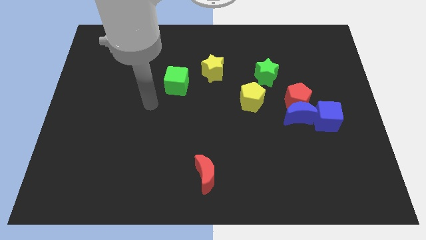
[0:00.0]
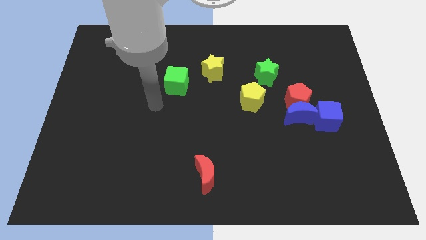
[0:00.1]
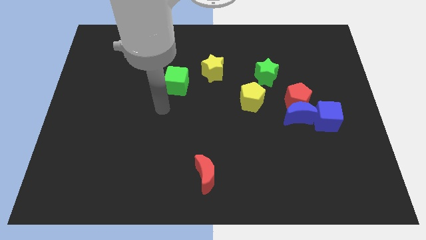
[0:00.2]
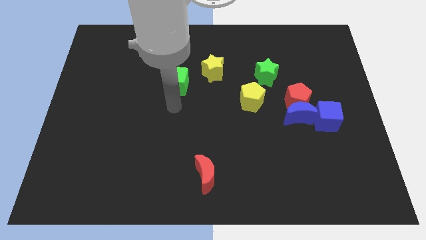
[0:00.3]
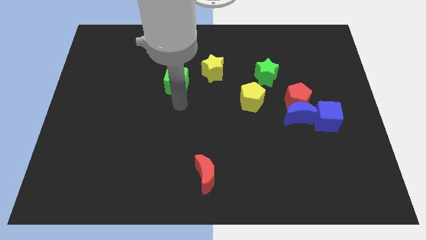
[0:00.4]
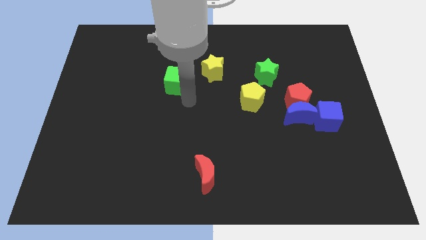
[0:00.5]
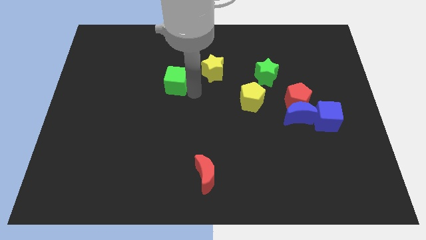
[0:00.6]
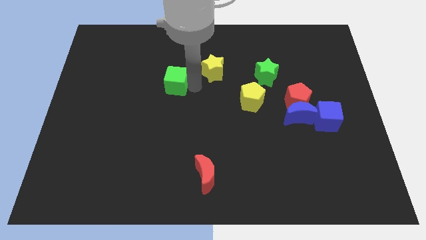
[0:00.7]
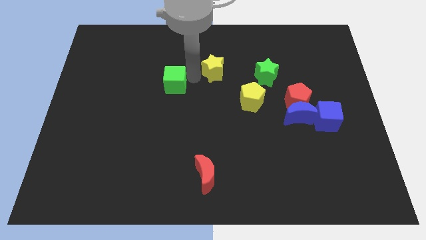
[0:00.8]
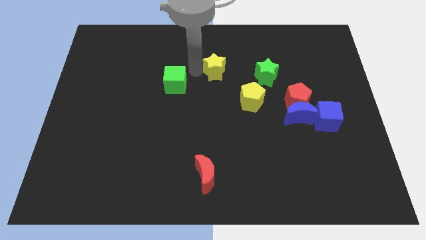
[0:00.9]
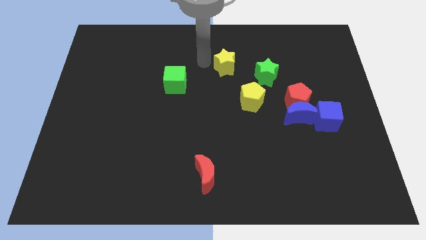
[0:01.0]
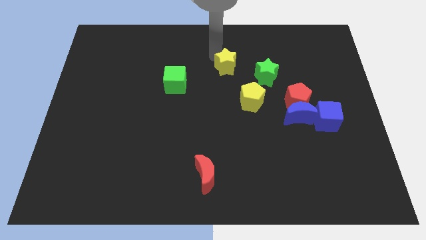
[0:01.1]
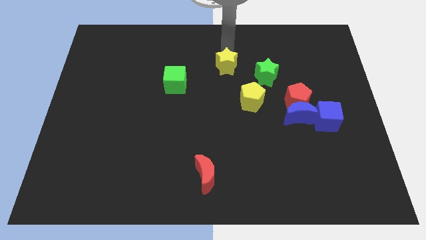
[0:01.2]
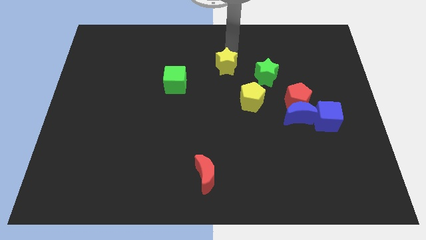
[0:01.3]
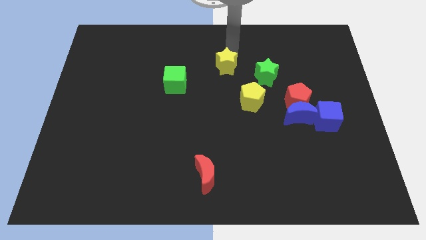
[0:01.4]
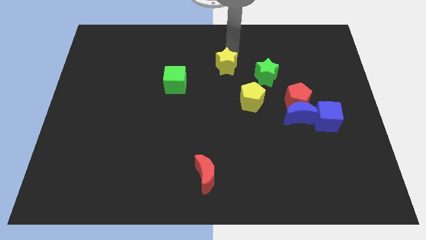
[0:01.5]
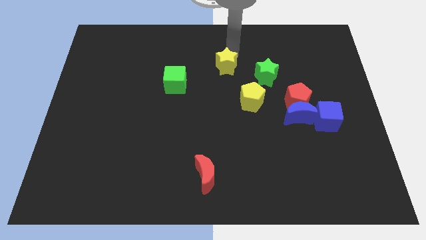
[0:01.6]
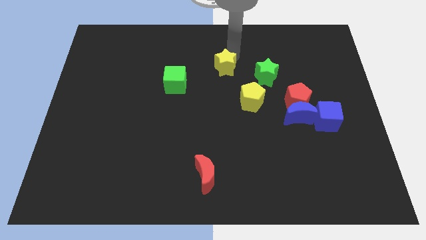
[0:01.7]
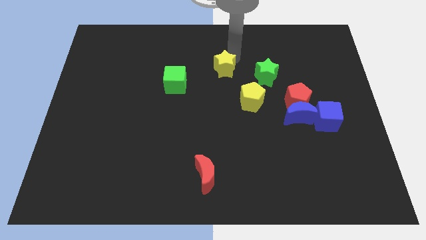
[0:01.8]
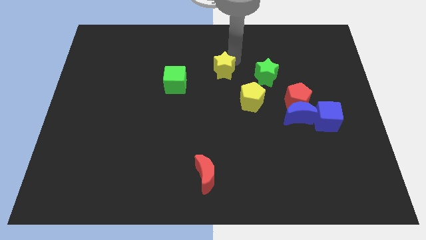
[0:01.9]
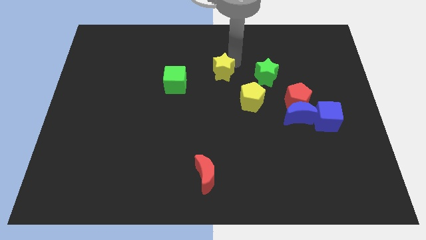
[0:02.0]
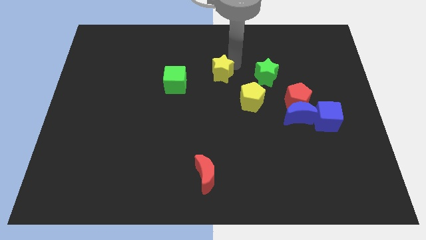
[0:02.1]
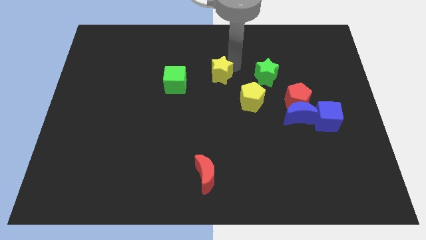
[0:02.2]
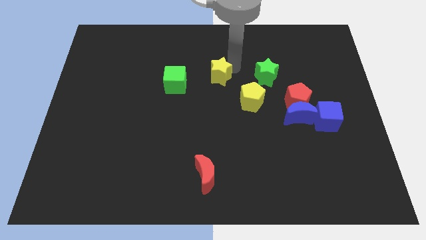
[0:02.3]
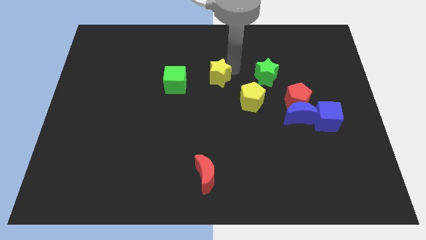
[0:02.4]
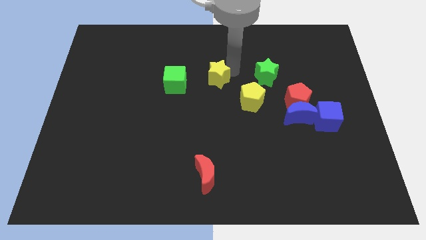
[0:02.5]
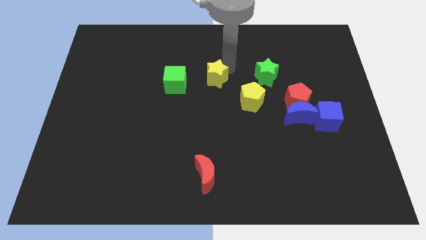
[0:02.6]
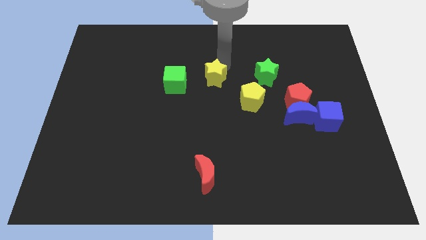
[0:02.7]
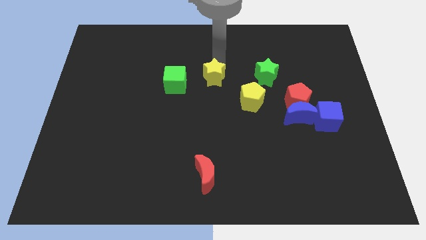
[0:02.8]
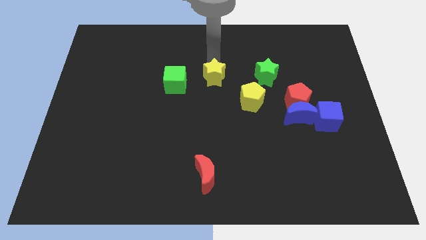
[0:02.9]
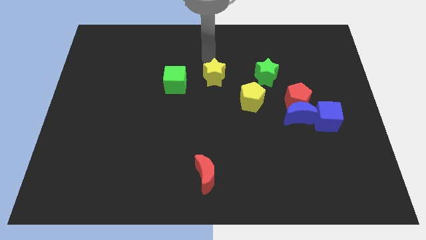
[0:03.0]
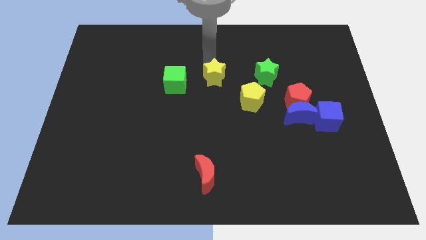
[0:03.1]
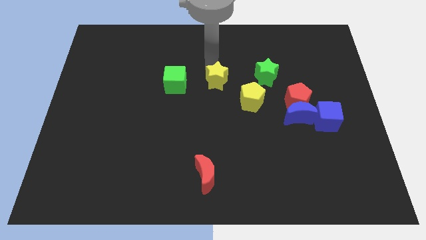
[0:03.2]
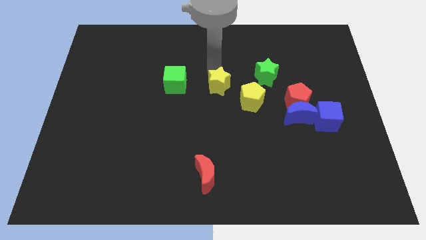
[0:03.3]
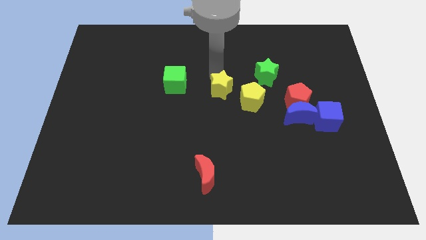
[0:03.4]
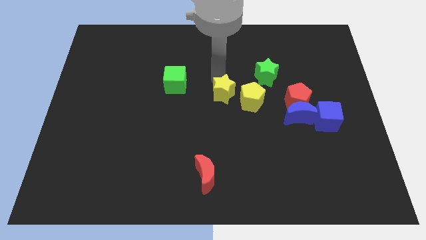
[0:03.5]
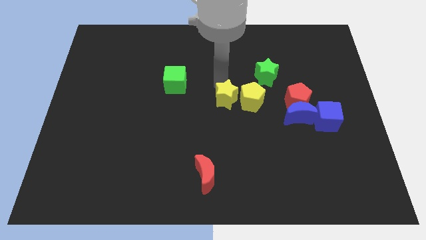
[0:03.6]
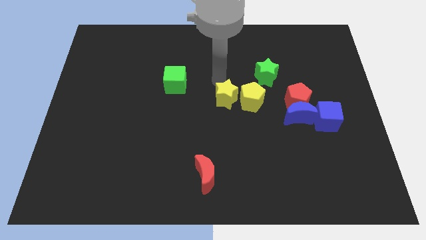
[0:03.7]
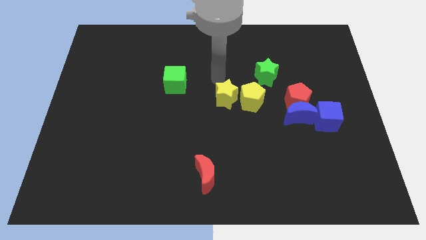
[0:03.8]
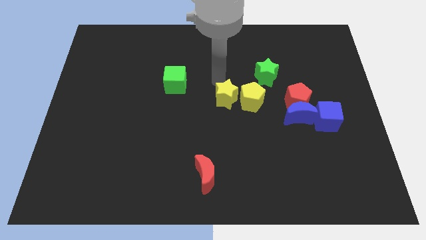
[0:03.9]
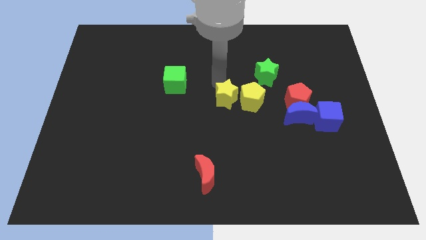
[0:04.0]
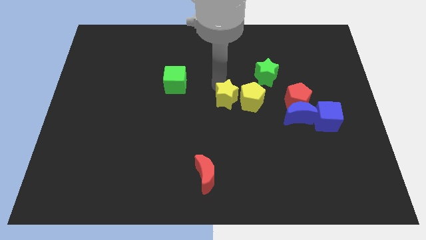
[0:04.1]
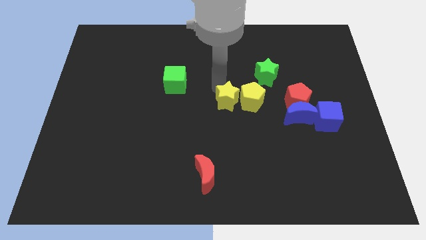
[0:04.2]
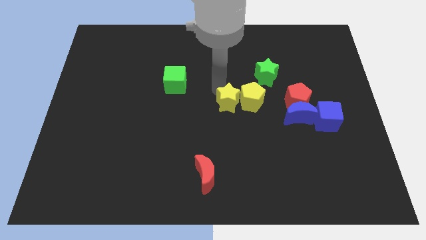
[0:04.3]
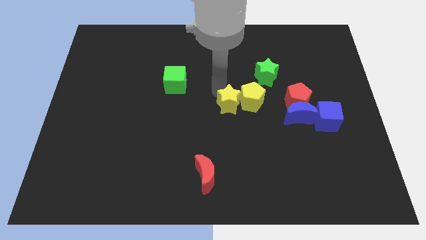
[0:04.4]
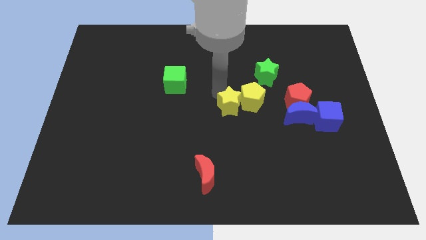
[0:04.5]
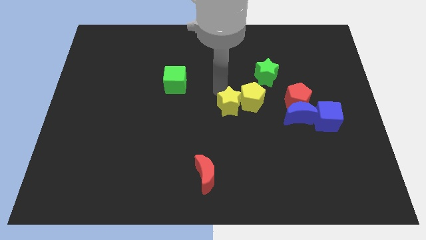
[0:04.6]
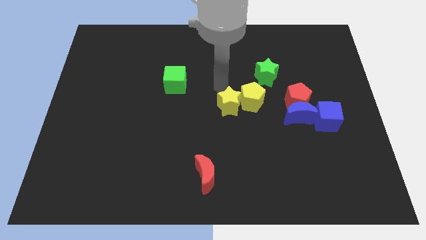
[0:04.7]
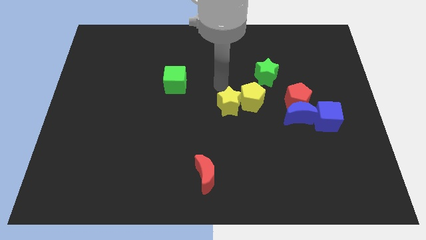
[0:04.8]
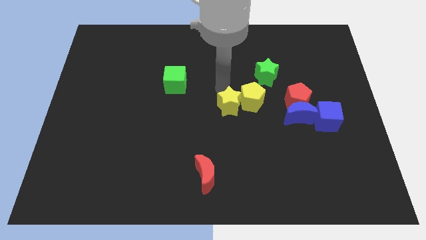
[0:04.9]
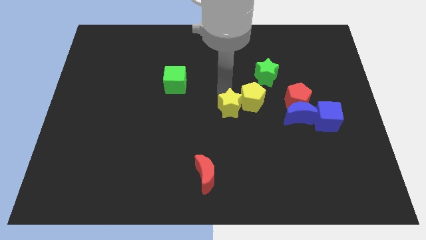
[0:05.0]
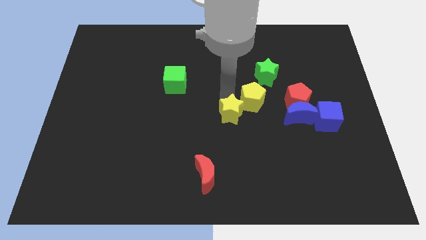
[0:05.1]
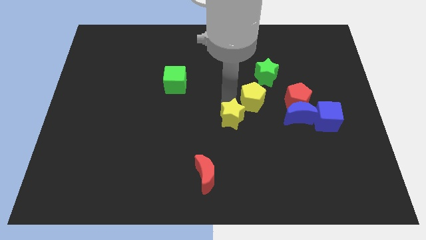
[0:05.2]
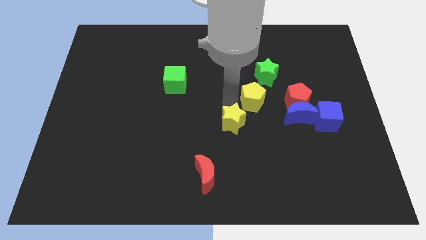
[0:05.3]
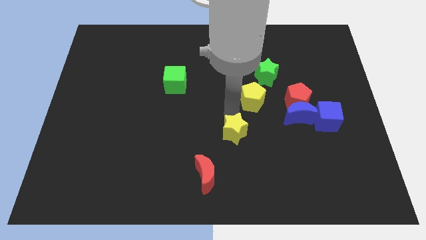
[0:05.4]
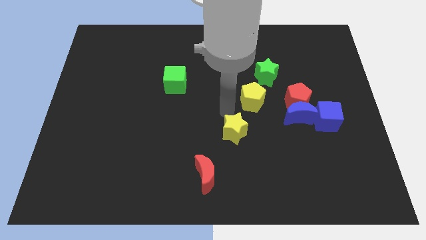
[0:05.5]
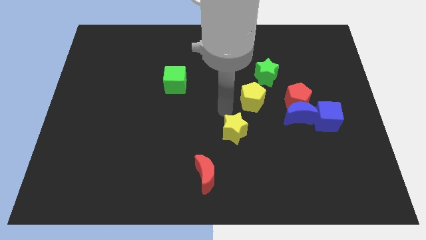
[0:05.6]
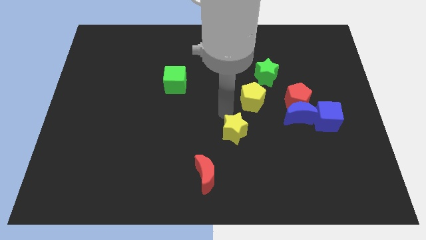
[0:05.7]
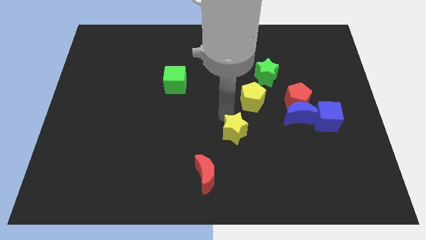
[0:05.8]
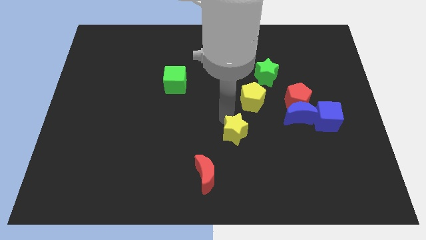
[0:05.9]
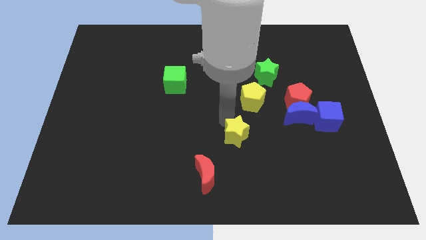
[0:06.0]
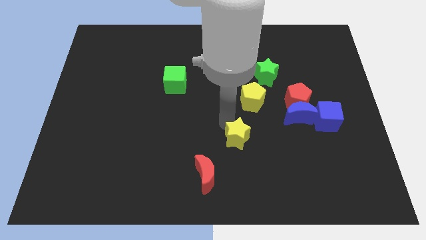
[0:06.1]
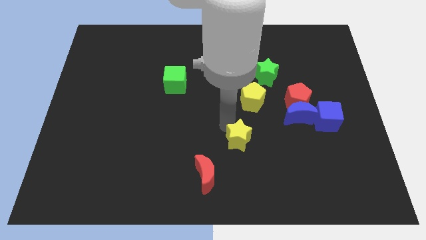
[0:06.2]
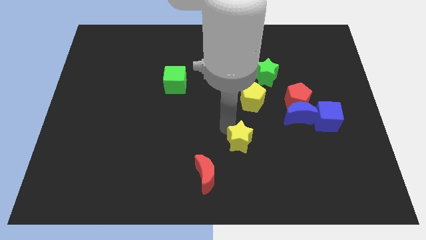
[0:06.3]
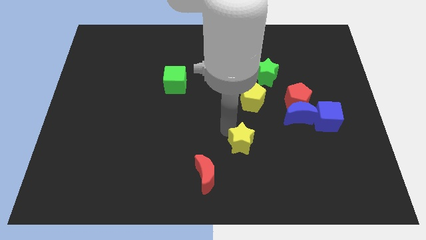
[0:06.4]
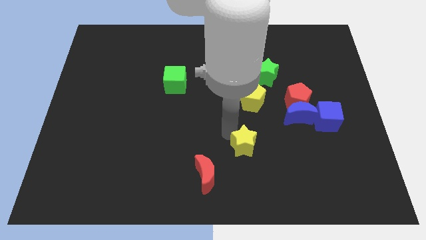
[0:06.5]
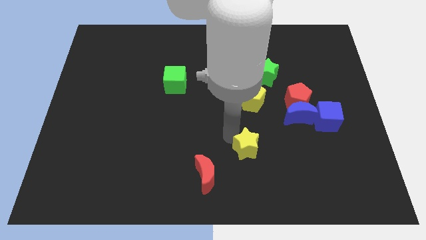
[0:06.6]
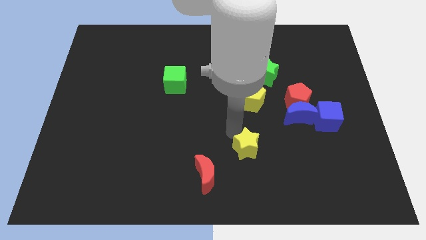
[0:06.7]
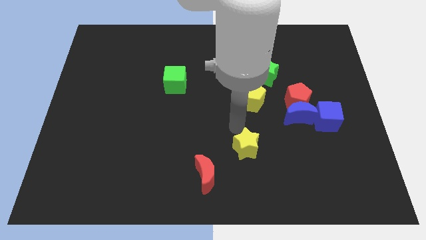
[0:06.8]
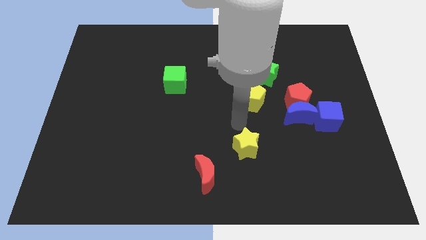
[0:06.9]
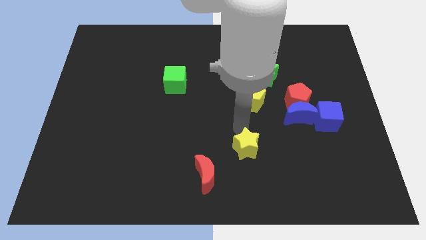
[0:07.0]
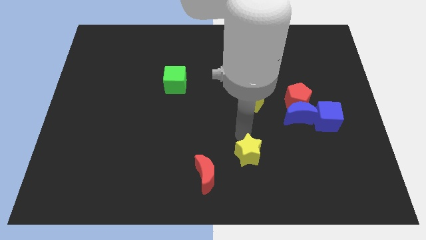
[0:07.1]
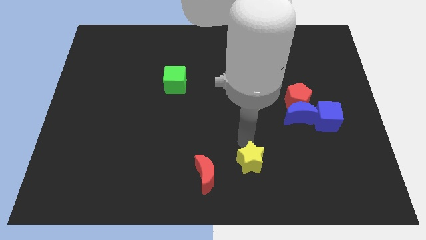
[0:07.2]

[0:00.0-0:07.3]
slide the yellow star to the right of the red moon

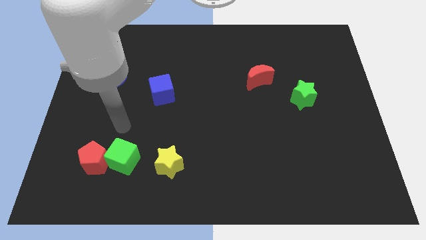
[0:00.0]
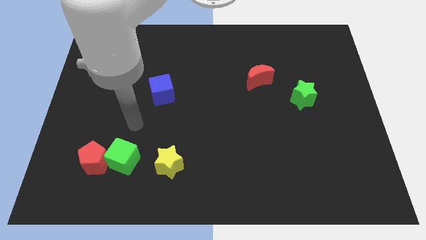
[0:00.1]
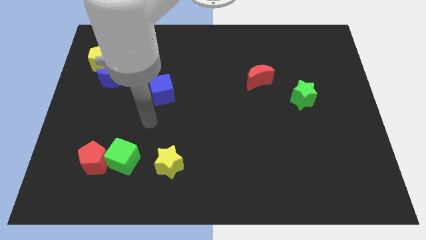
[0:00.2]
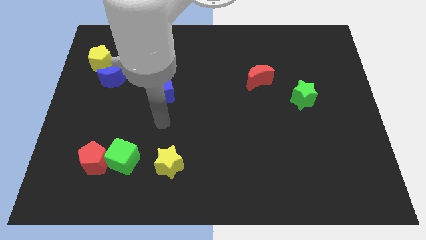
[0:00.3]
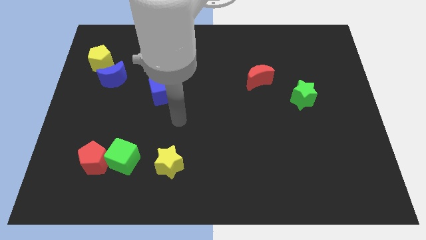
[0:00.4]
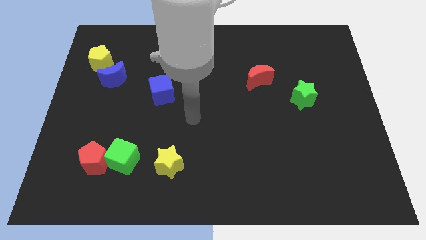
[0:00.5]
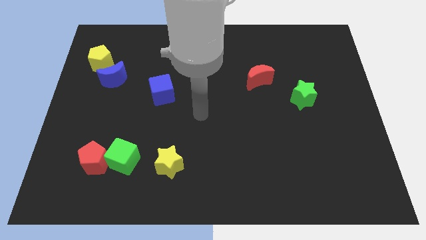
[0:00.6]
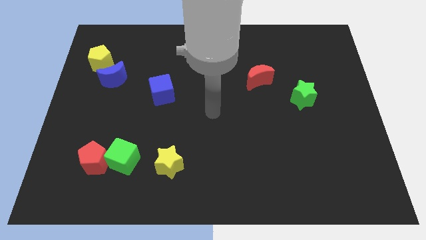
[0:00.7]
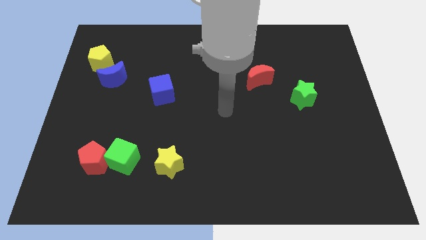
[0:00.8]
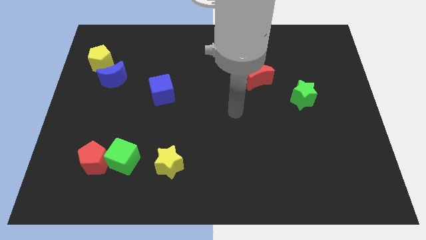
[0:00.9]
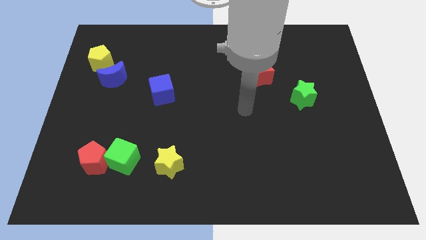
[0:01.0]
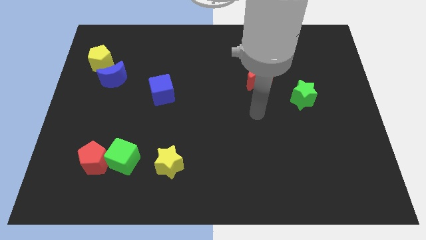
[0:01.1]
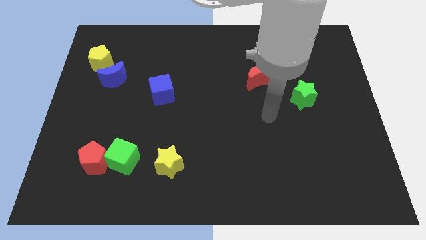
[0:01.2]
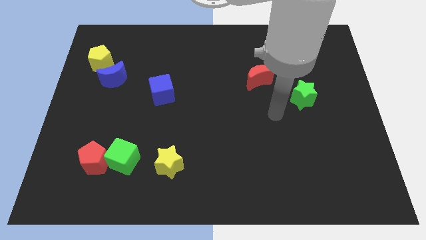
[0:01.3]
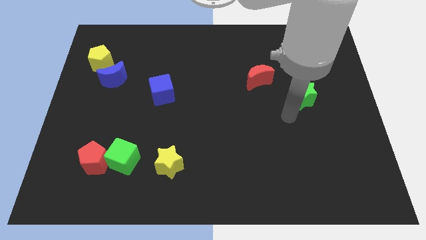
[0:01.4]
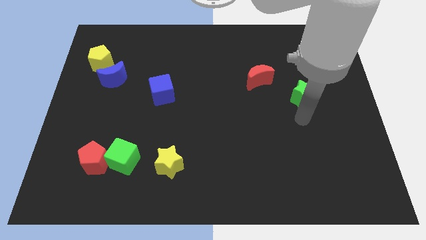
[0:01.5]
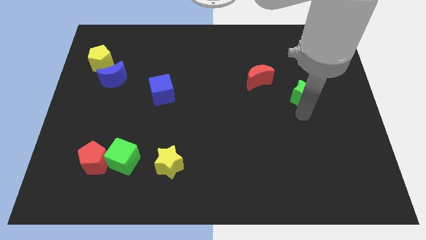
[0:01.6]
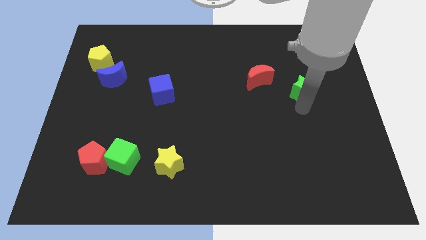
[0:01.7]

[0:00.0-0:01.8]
put the green star right of the red moon
